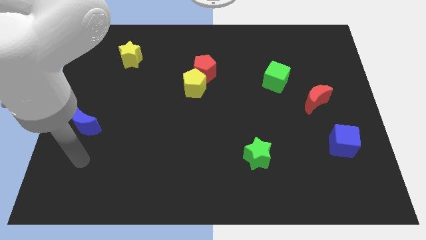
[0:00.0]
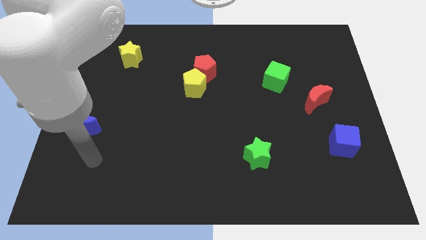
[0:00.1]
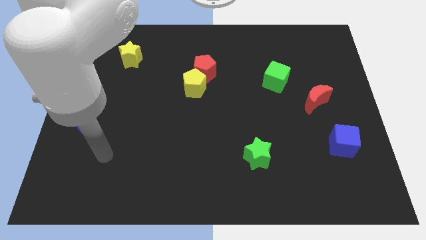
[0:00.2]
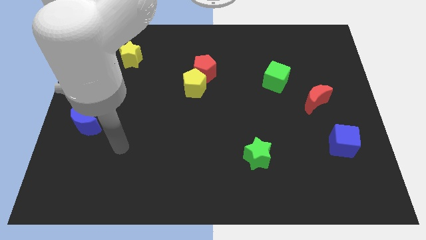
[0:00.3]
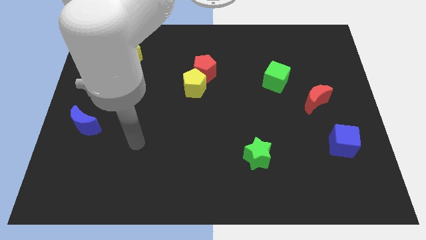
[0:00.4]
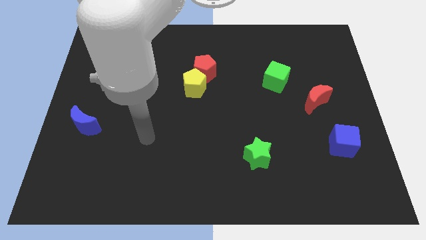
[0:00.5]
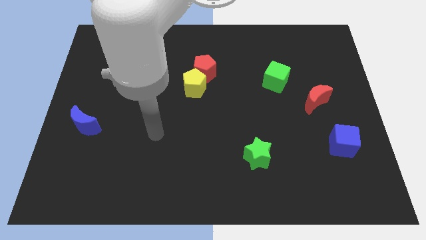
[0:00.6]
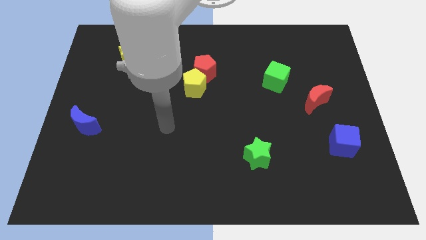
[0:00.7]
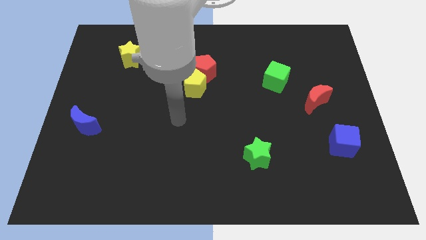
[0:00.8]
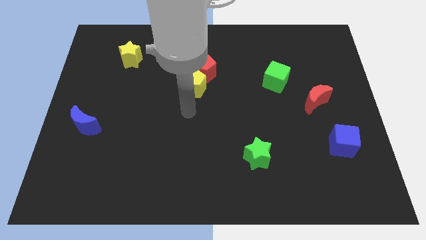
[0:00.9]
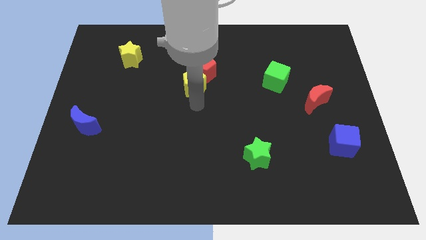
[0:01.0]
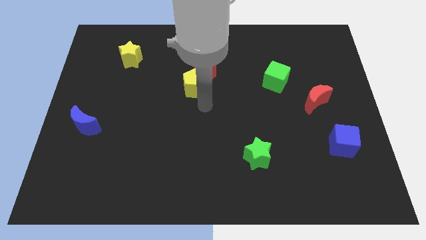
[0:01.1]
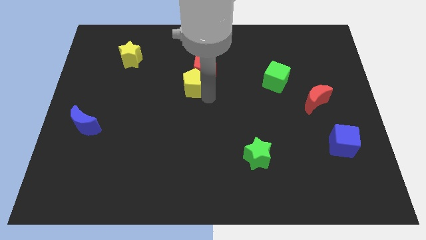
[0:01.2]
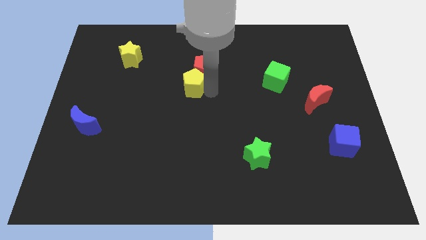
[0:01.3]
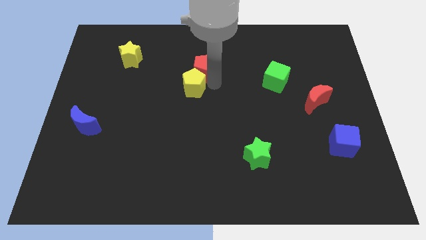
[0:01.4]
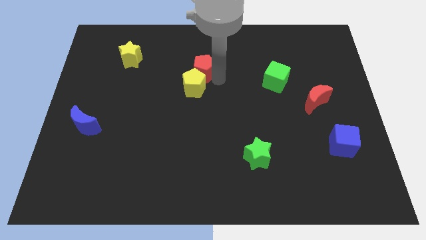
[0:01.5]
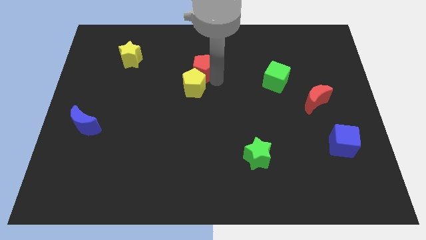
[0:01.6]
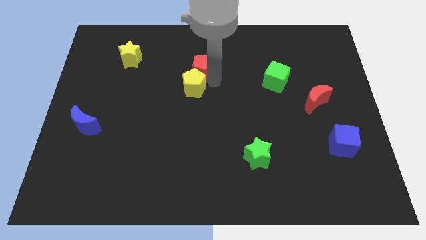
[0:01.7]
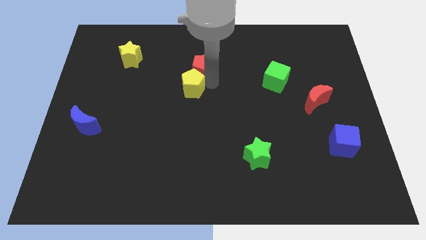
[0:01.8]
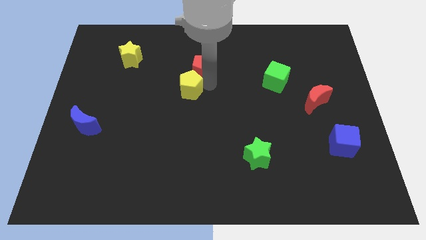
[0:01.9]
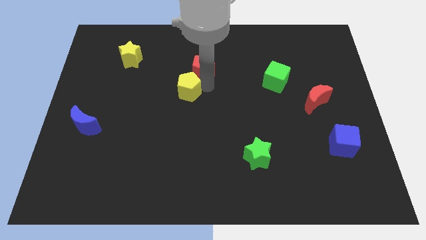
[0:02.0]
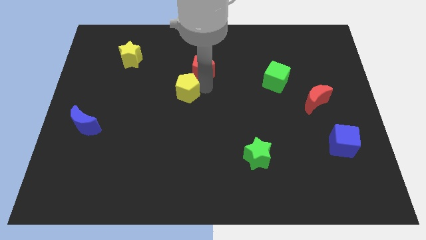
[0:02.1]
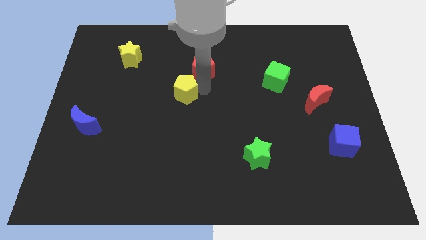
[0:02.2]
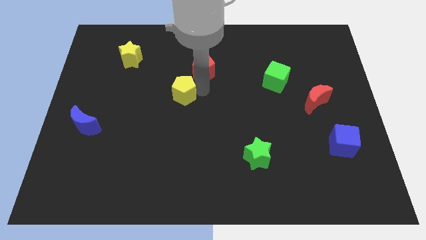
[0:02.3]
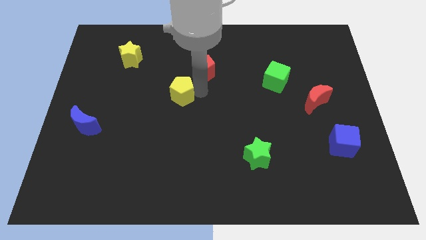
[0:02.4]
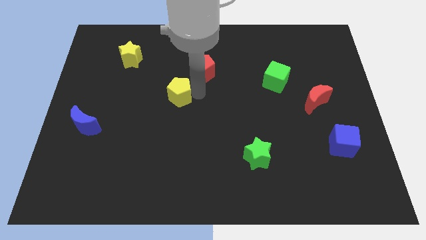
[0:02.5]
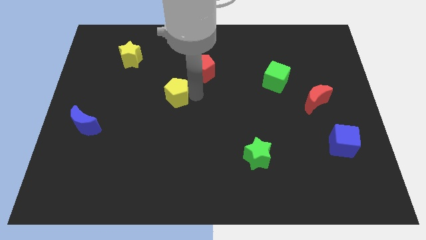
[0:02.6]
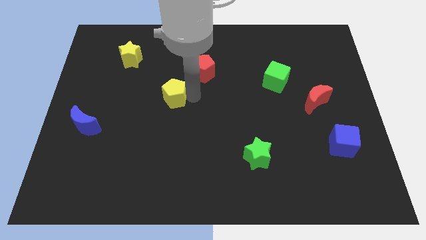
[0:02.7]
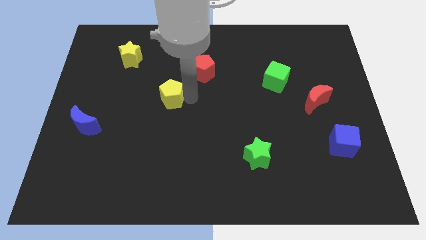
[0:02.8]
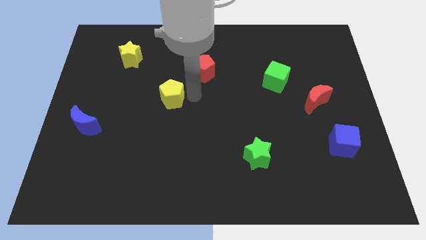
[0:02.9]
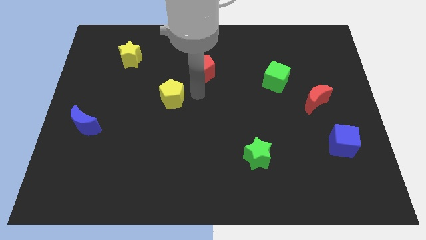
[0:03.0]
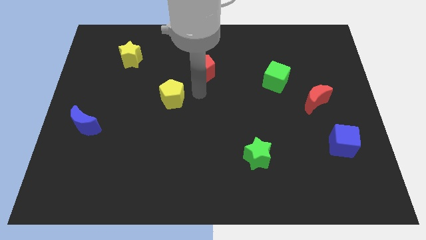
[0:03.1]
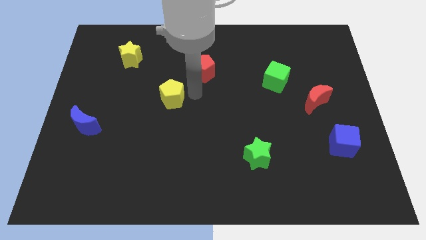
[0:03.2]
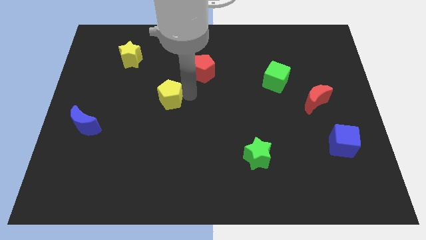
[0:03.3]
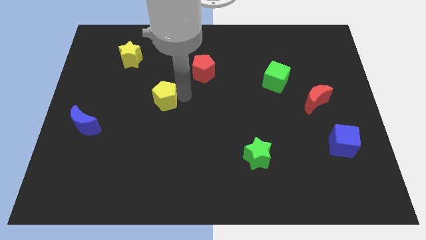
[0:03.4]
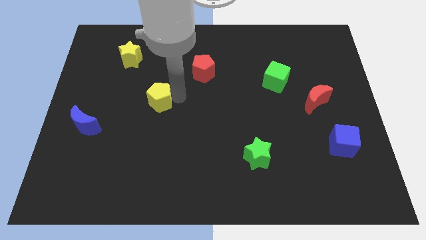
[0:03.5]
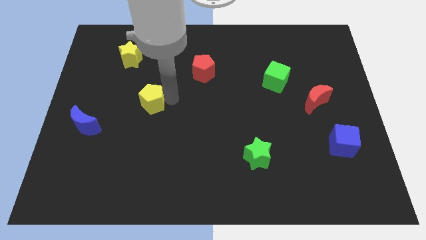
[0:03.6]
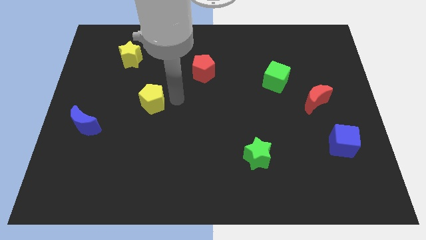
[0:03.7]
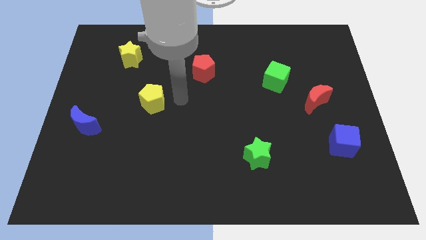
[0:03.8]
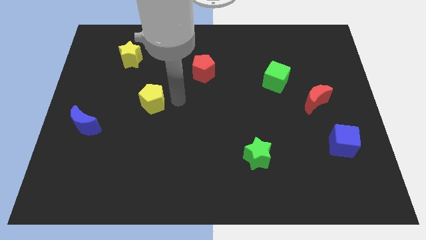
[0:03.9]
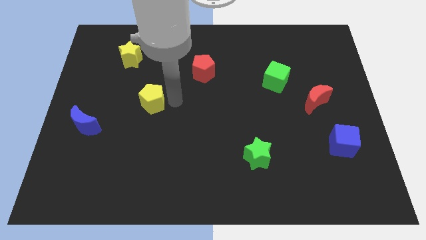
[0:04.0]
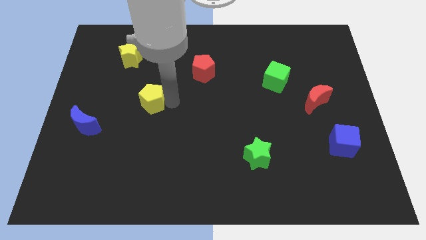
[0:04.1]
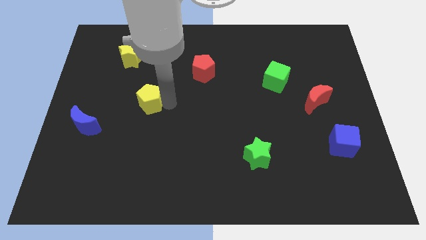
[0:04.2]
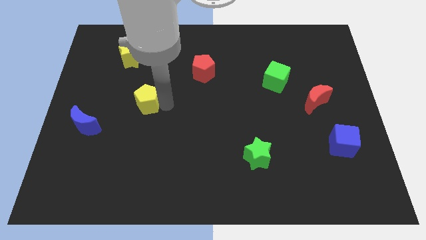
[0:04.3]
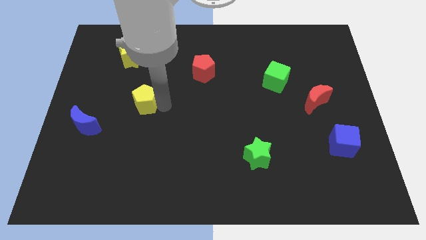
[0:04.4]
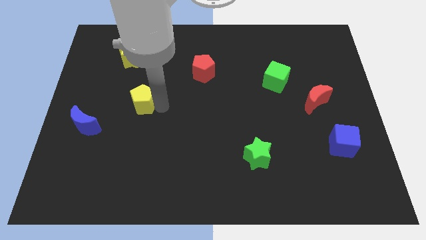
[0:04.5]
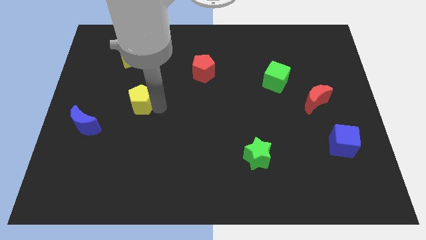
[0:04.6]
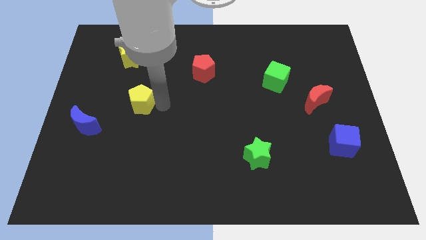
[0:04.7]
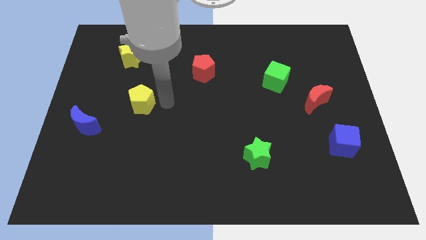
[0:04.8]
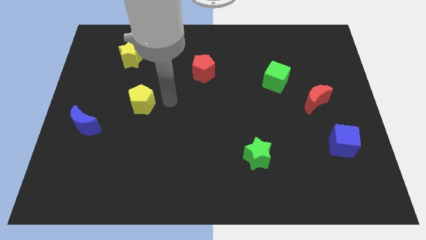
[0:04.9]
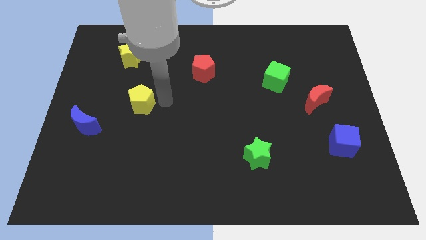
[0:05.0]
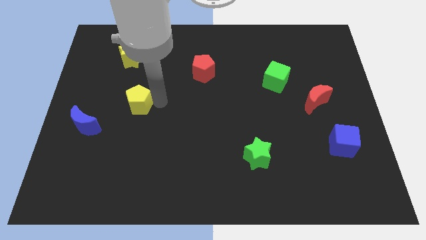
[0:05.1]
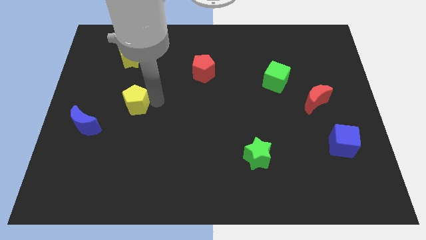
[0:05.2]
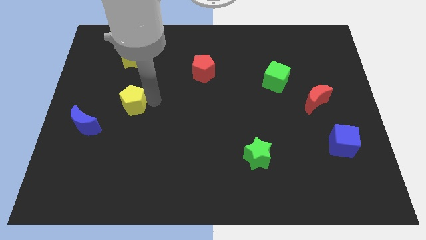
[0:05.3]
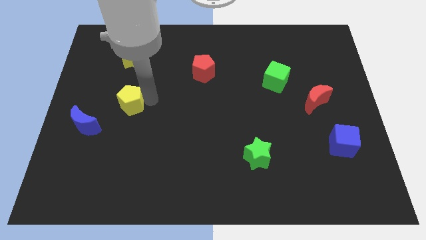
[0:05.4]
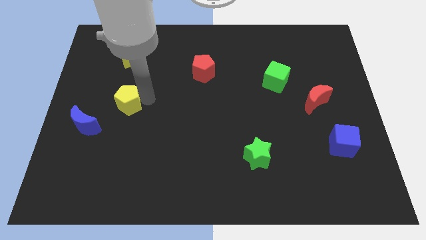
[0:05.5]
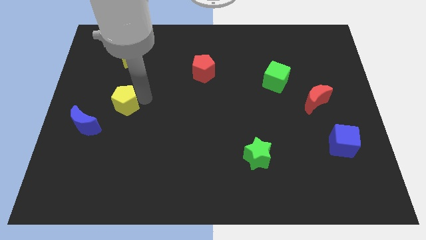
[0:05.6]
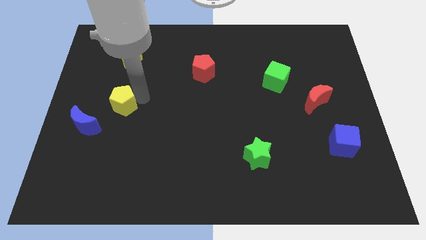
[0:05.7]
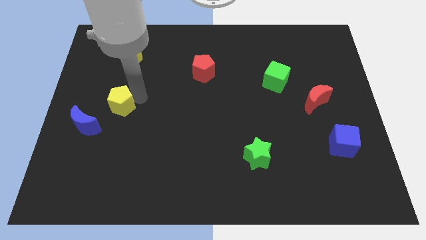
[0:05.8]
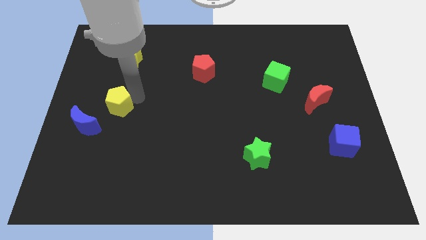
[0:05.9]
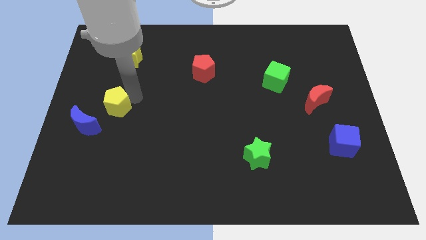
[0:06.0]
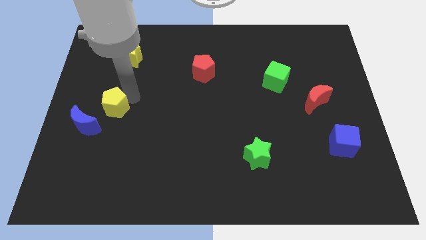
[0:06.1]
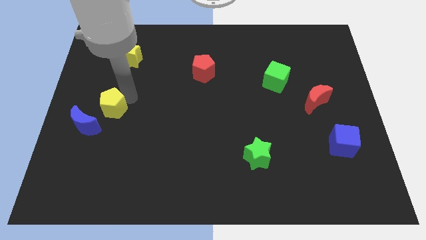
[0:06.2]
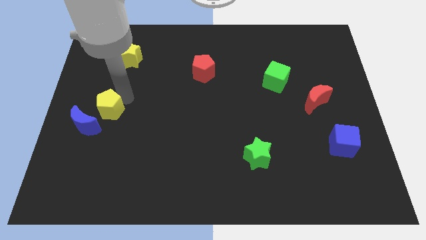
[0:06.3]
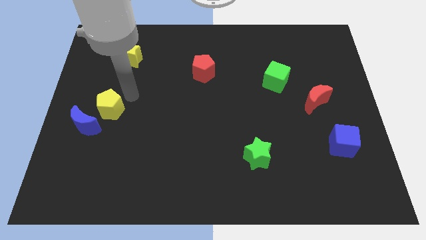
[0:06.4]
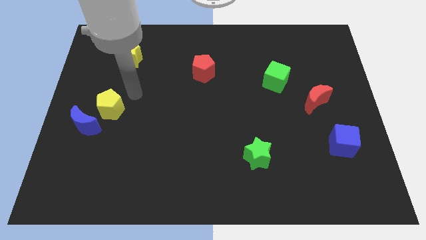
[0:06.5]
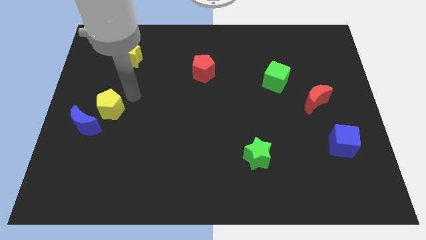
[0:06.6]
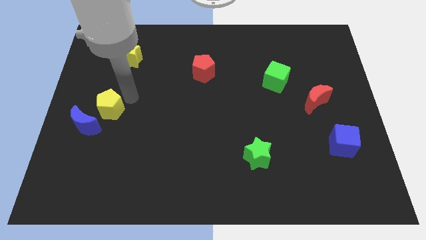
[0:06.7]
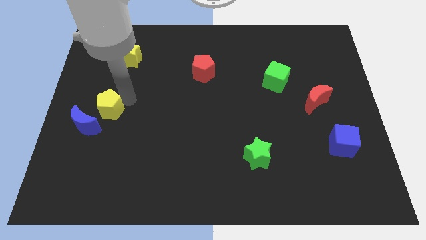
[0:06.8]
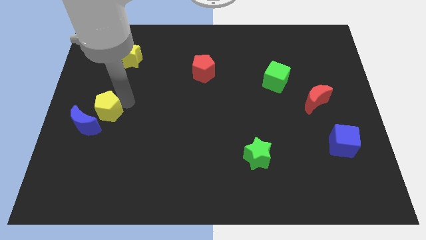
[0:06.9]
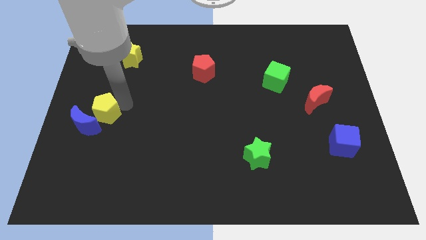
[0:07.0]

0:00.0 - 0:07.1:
slide the yellow pentagon towards the blue moon
